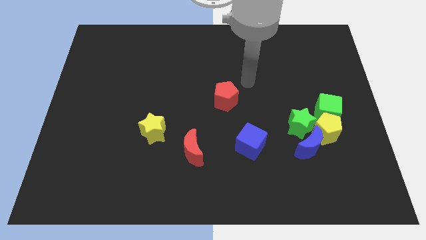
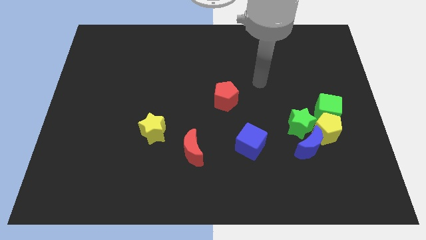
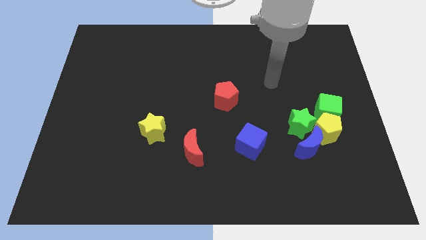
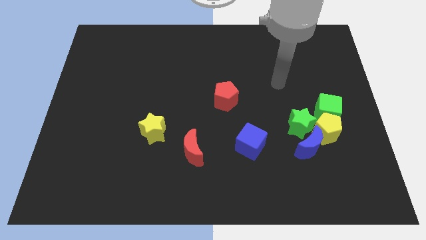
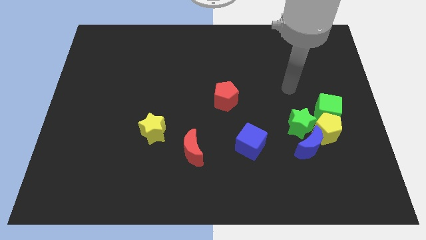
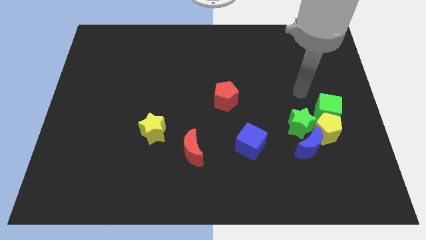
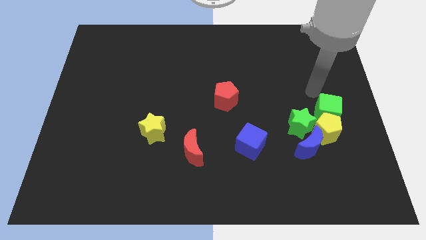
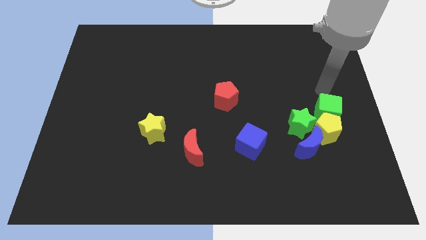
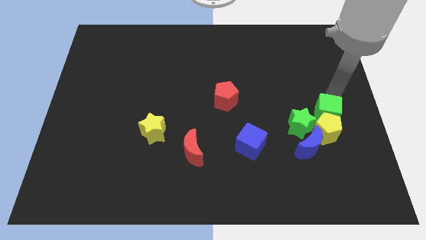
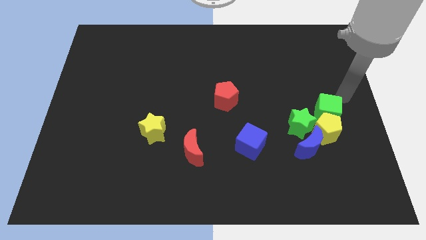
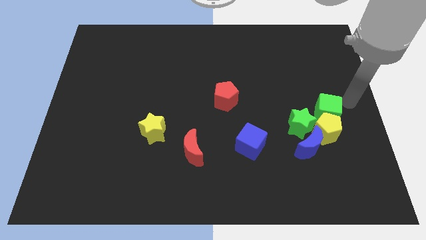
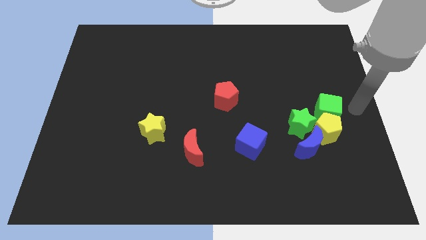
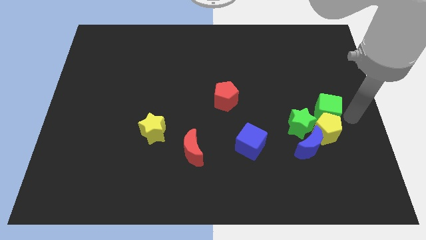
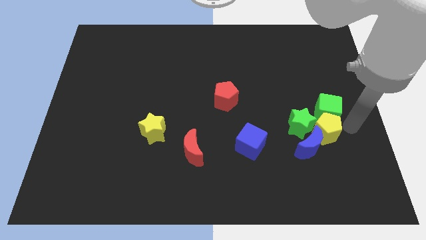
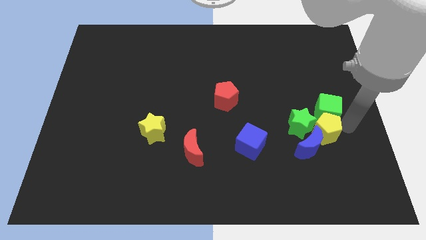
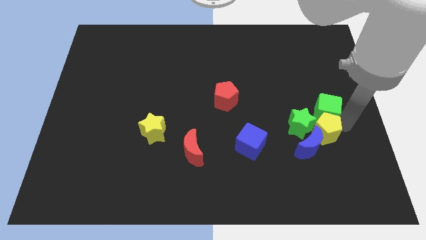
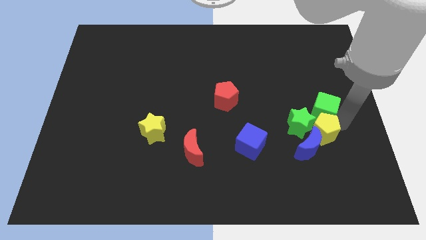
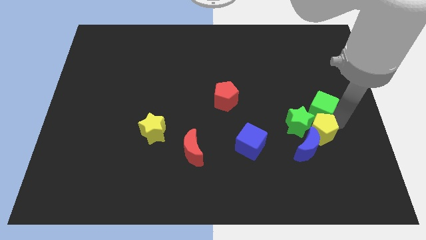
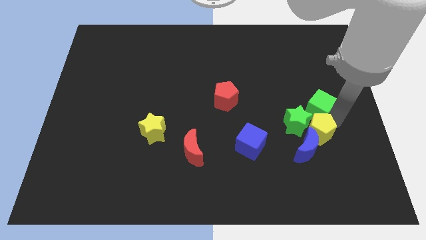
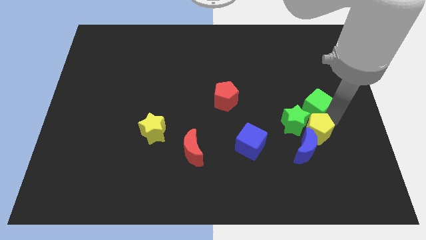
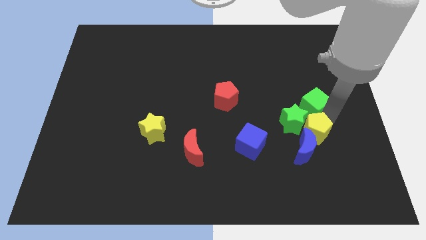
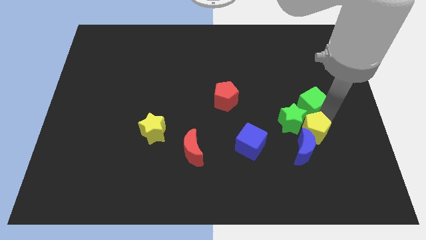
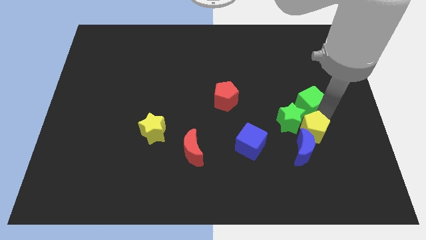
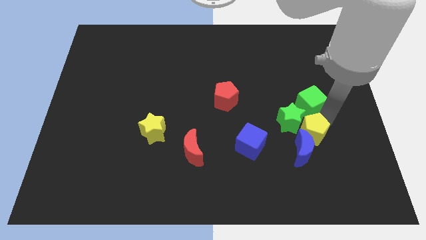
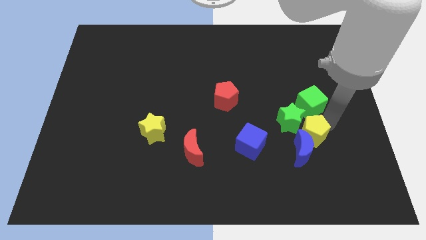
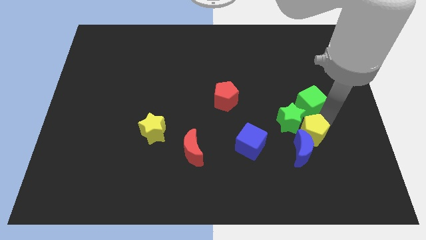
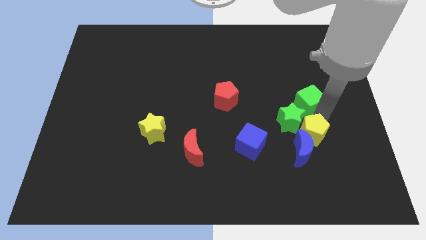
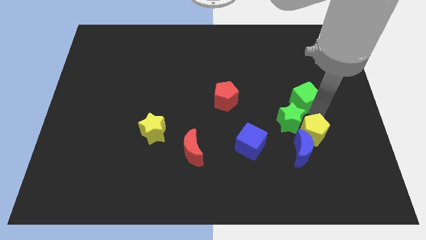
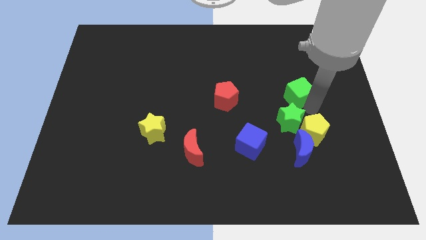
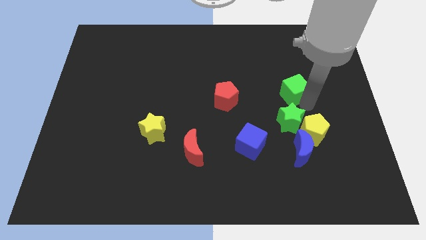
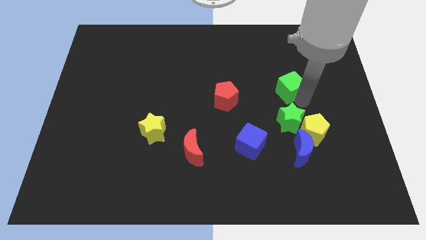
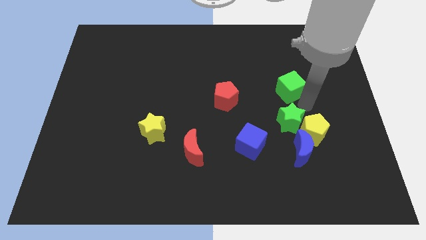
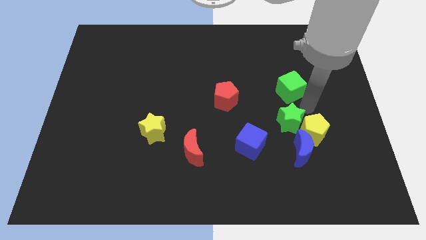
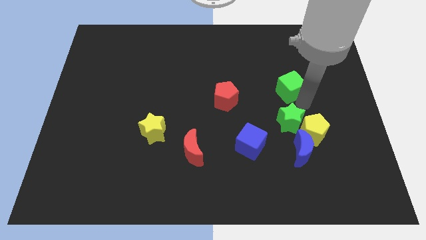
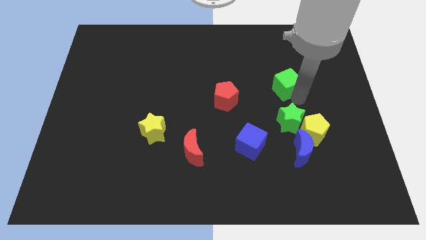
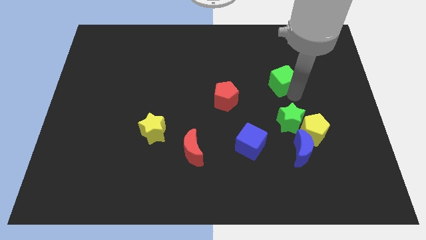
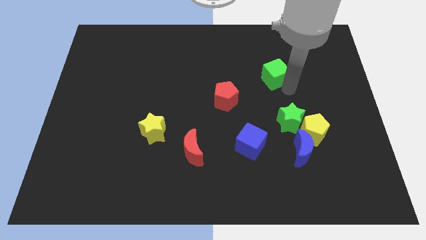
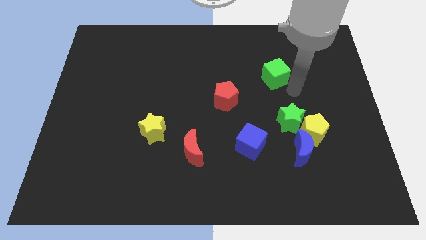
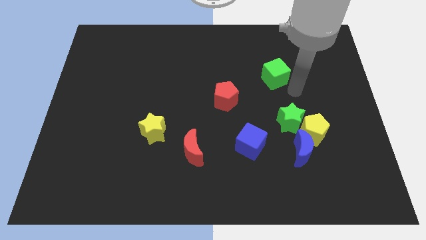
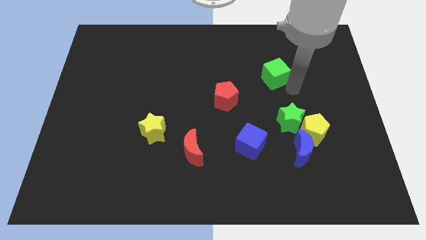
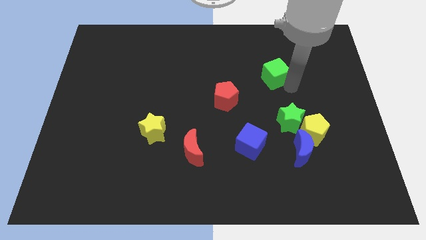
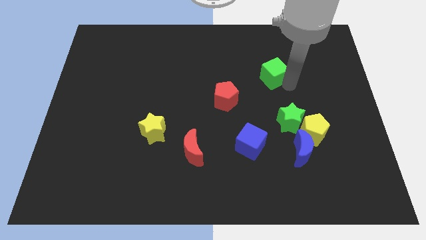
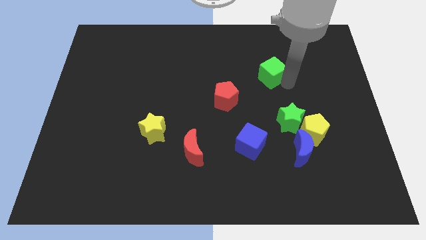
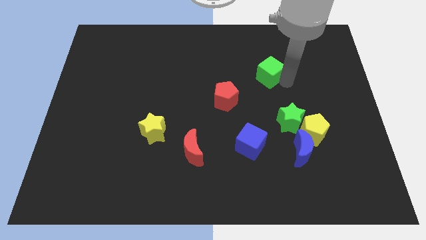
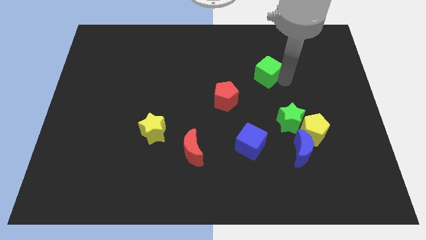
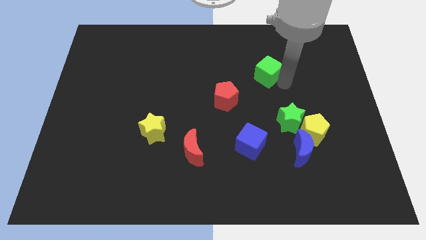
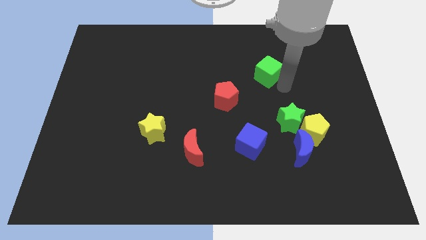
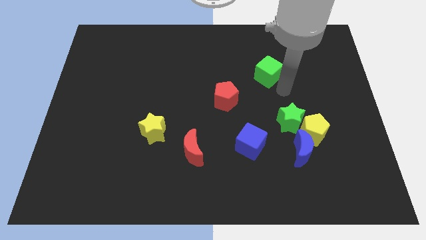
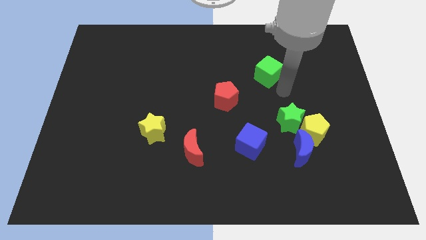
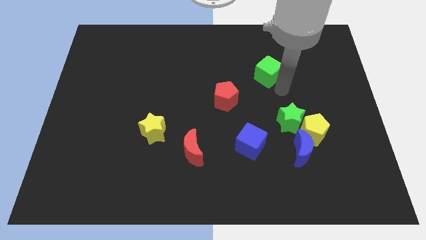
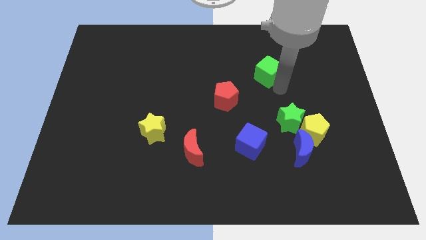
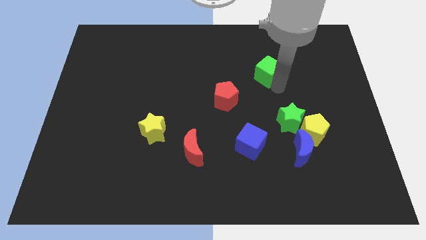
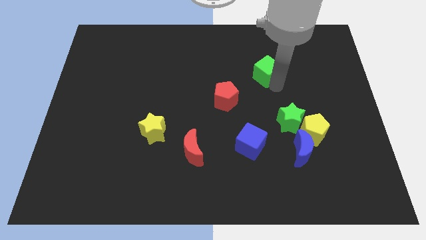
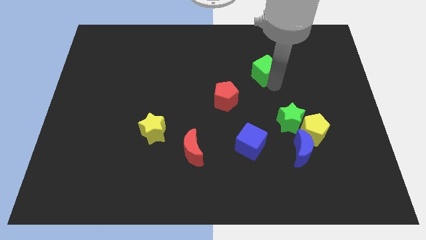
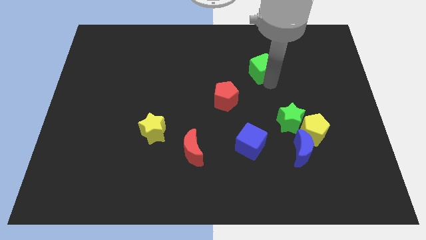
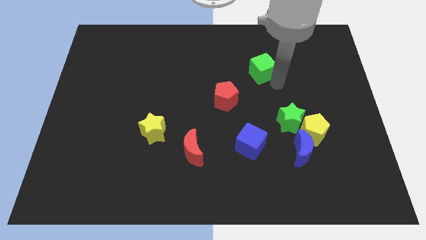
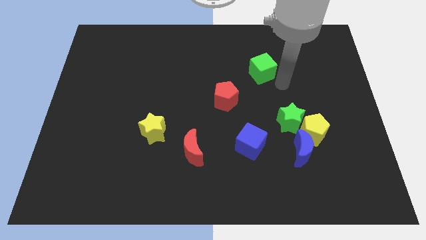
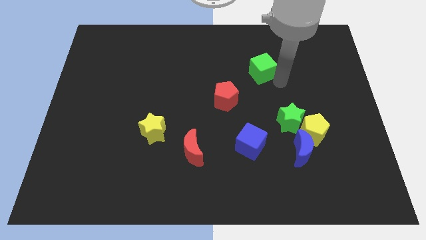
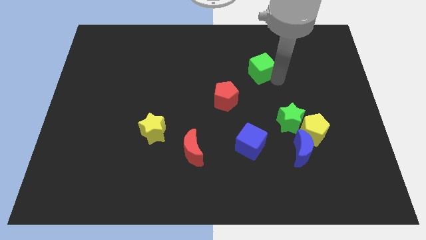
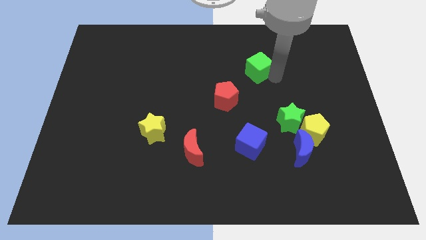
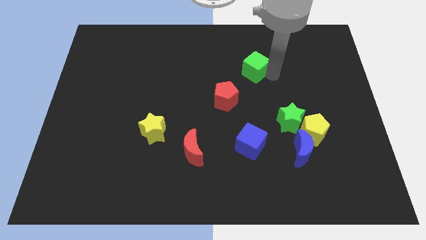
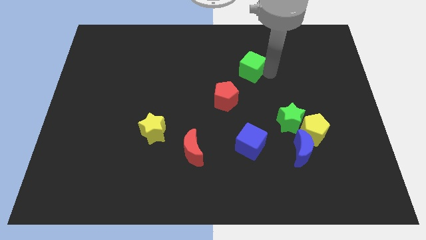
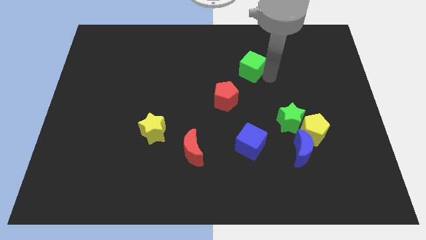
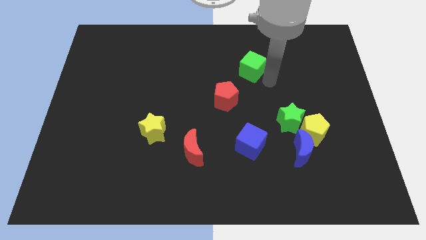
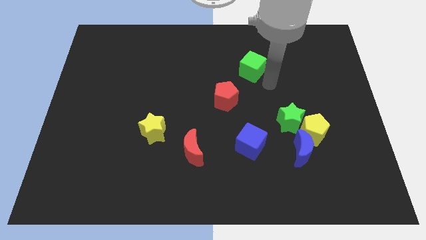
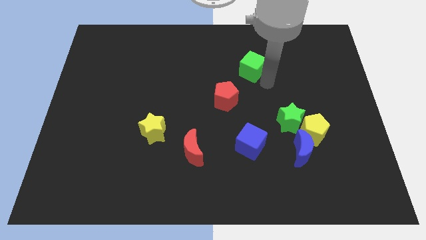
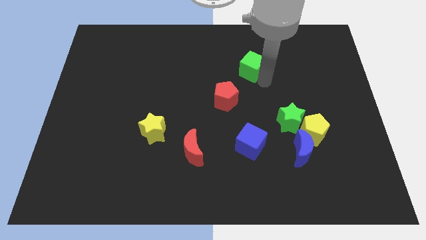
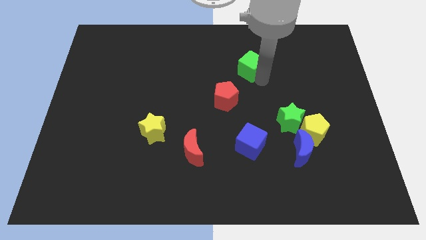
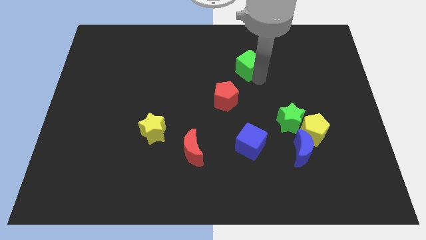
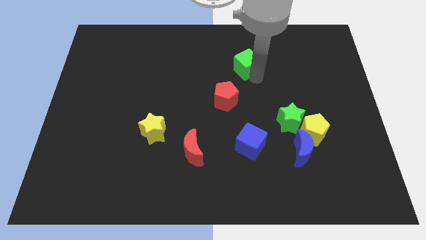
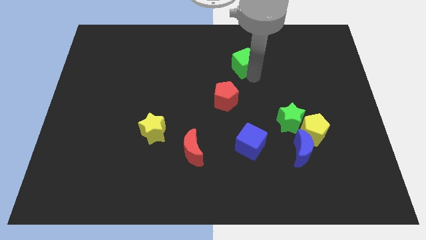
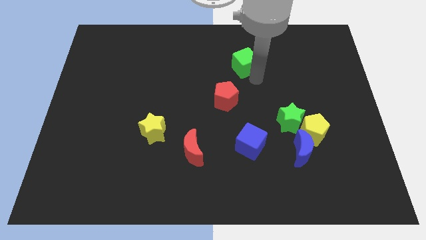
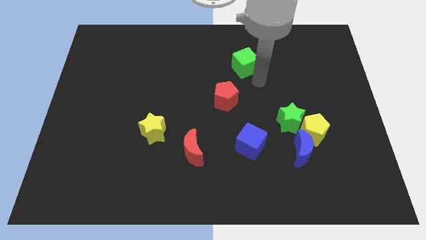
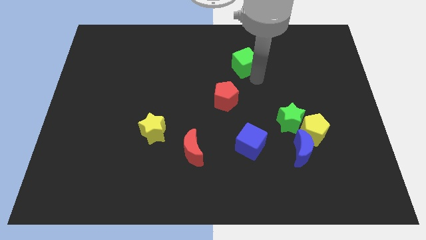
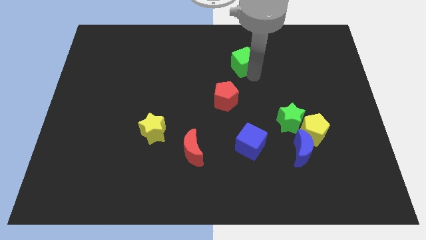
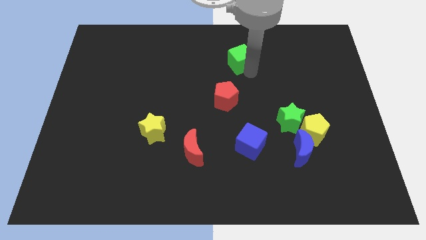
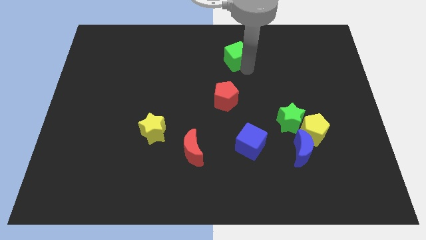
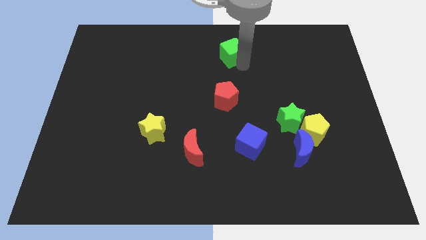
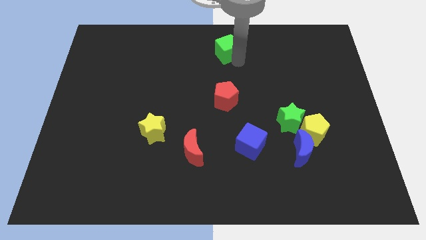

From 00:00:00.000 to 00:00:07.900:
slide the green cube to the top side
